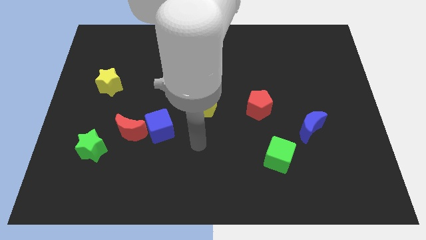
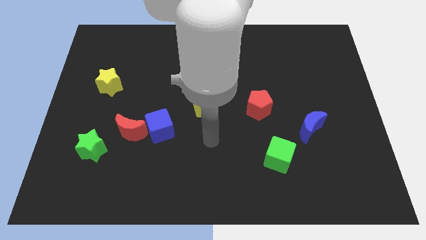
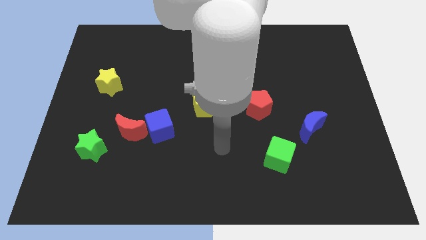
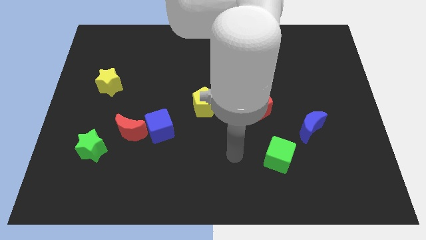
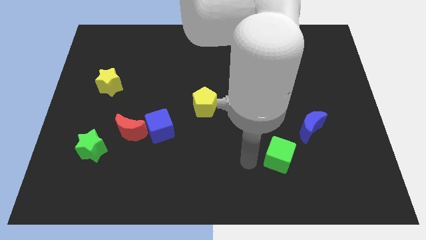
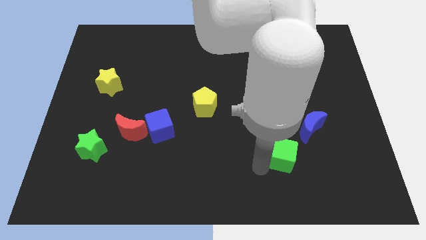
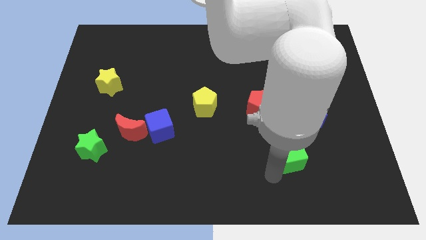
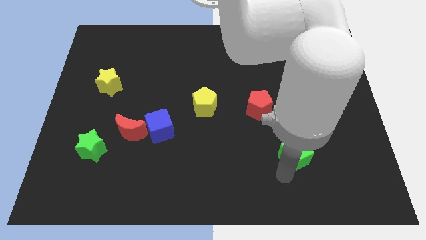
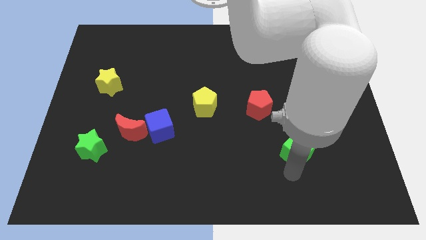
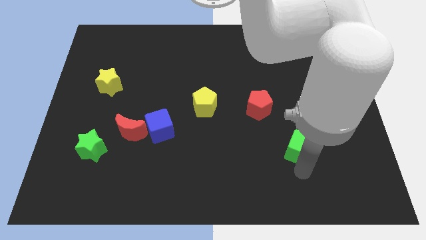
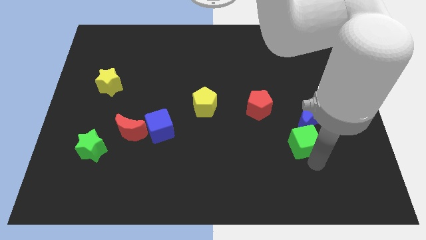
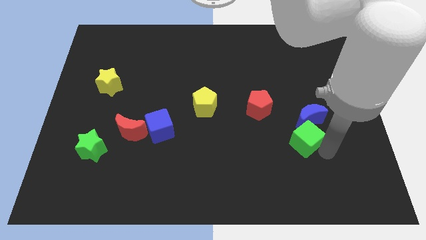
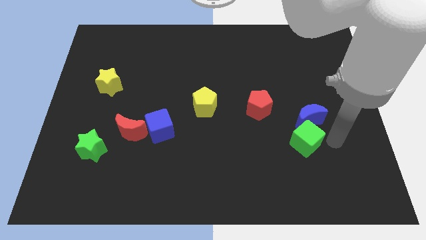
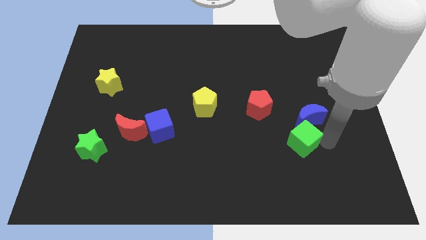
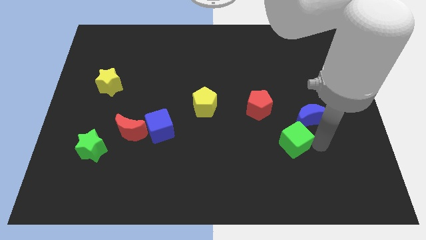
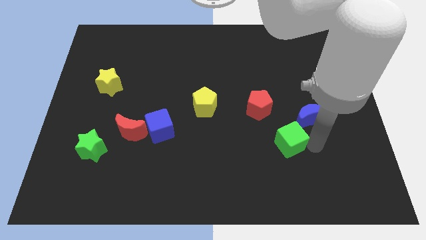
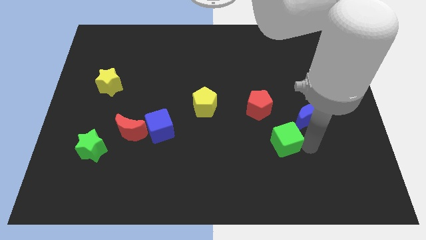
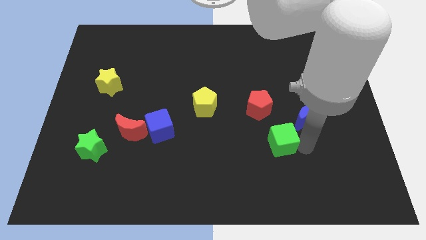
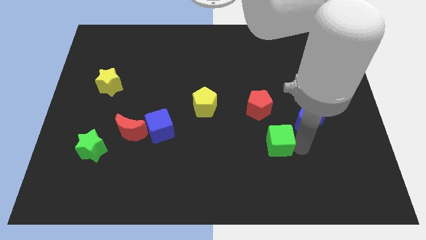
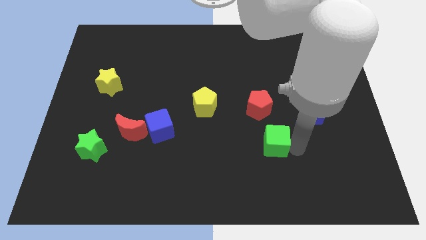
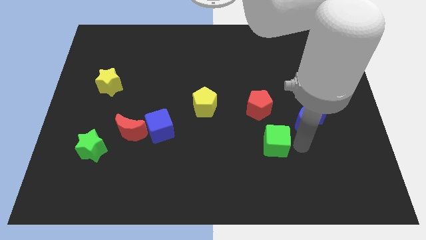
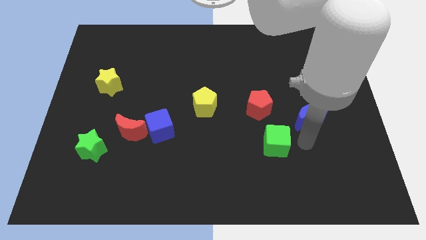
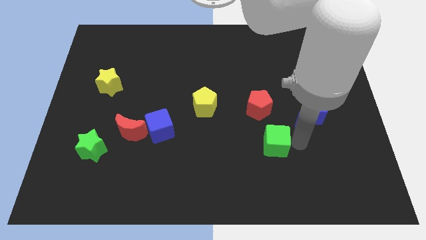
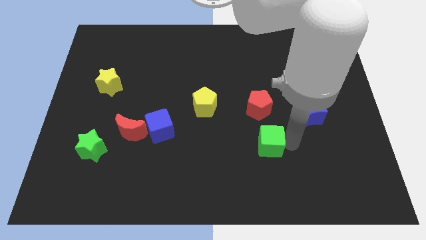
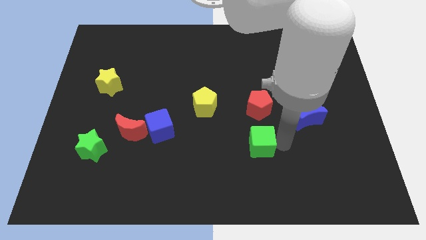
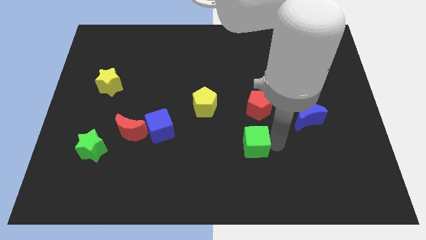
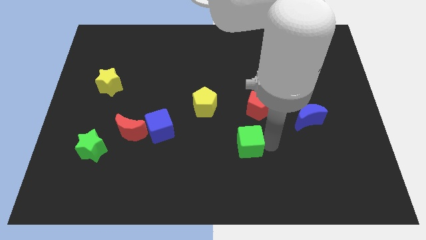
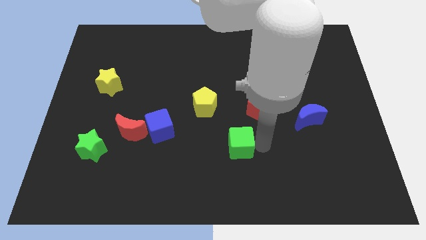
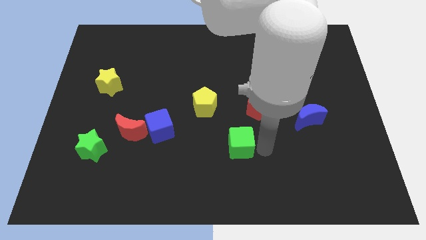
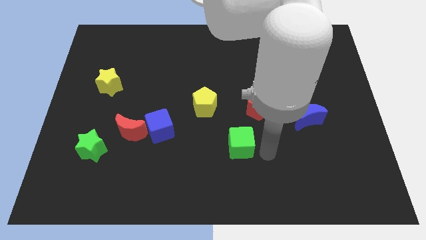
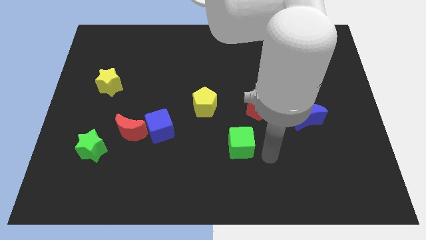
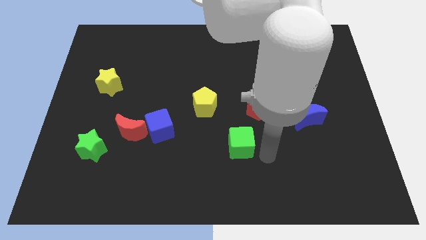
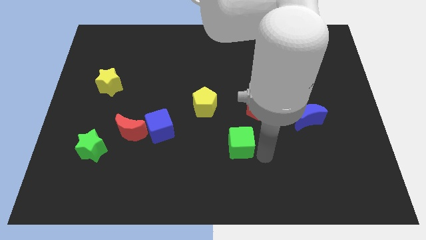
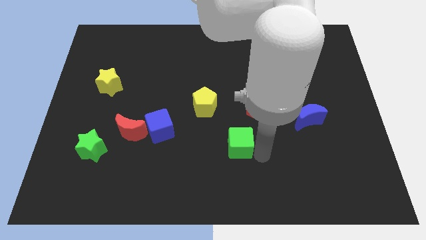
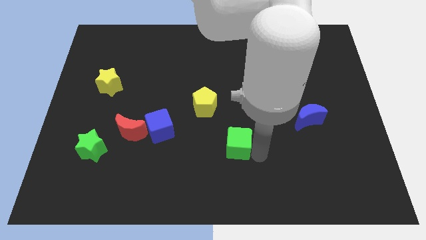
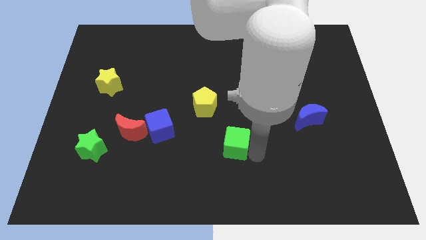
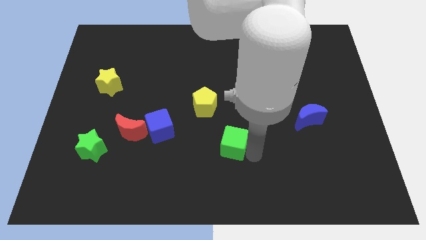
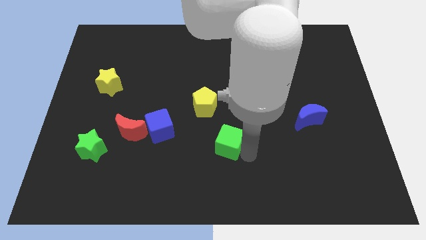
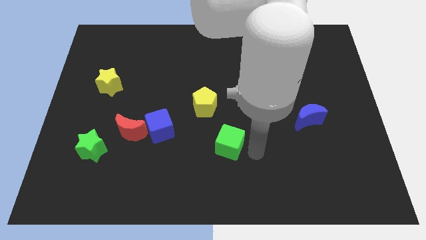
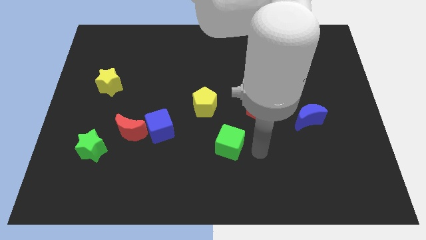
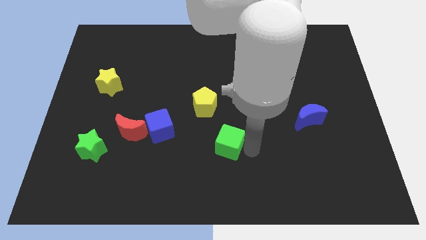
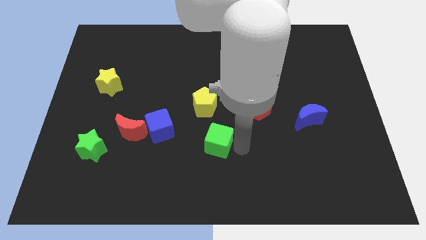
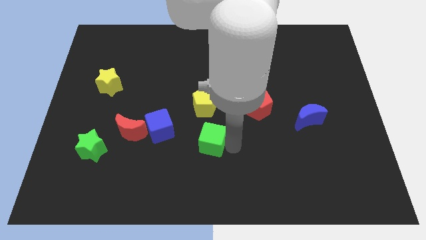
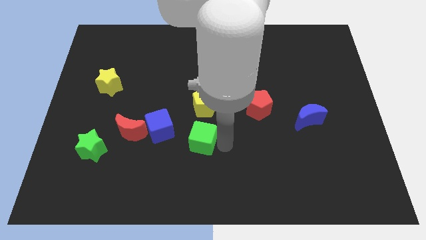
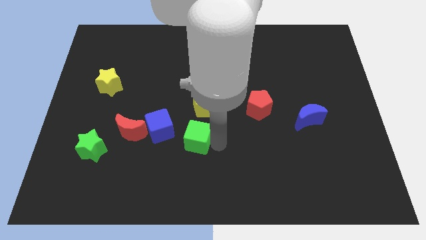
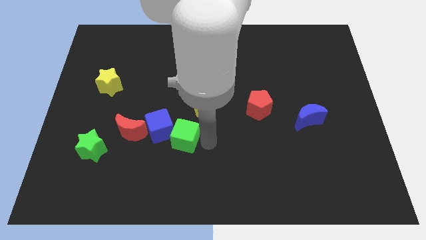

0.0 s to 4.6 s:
push the green cube towards the blue cube

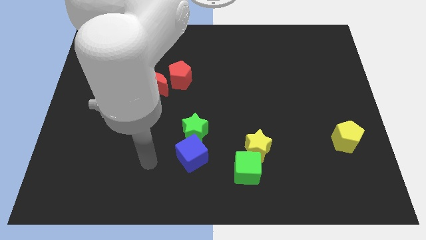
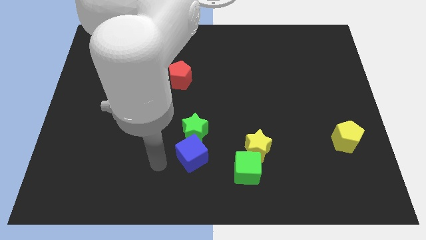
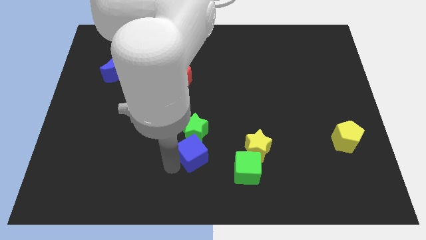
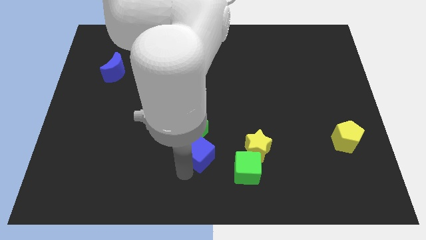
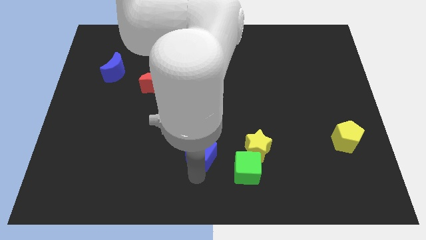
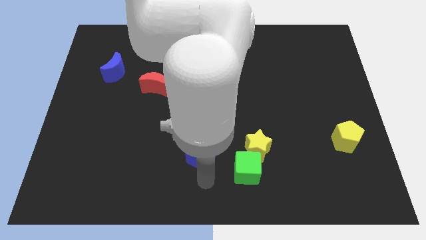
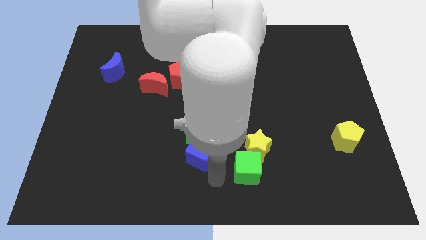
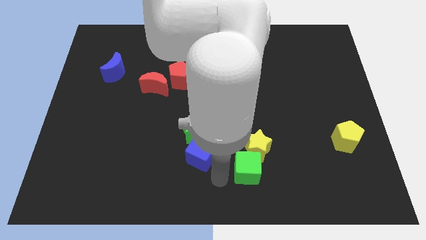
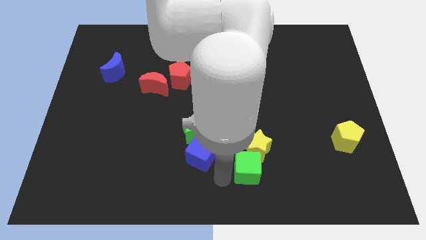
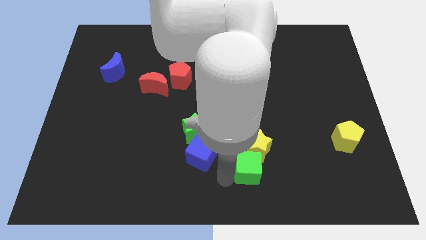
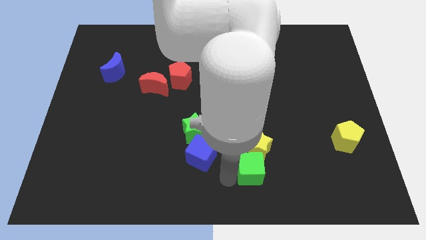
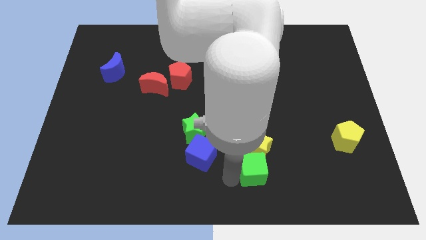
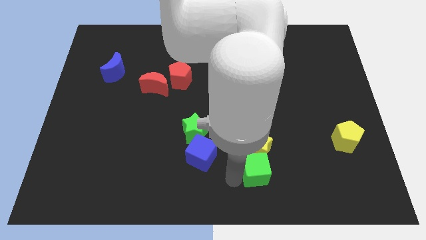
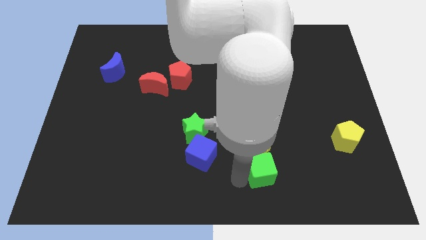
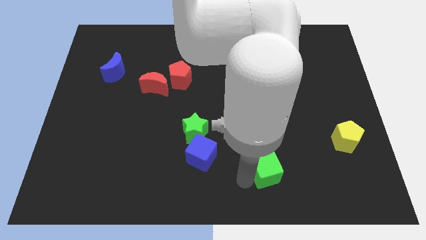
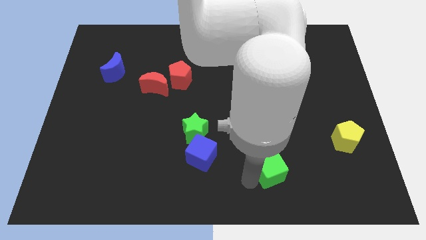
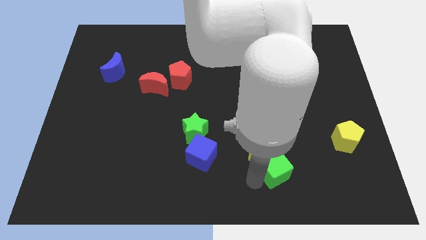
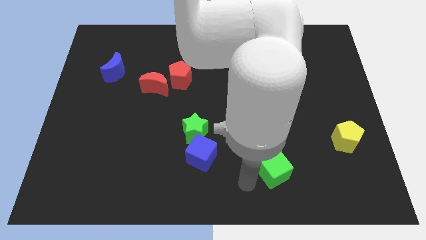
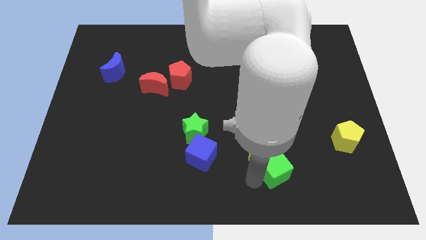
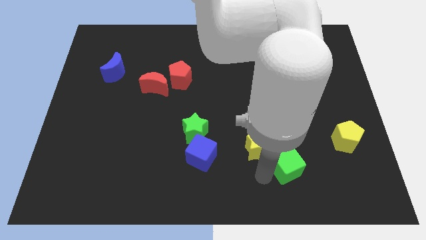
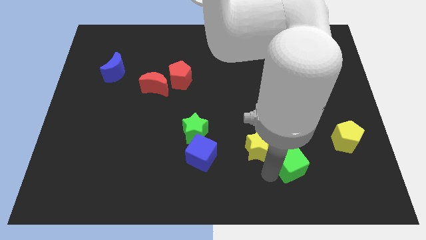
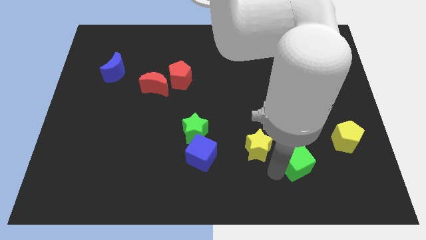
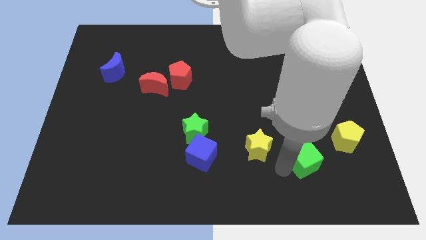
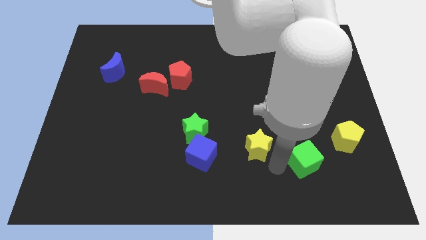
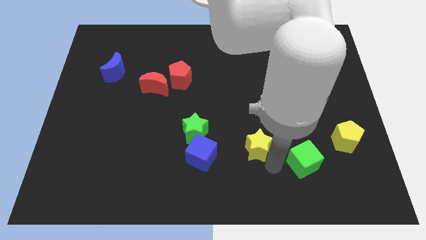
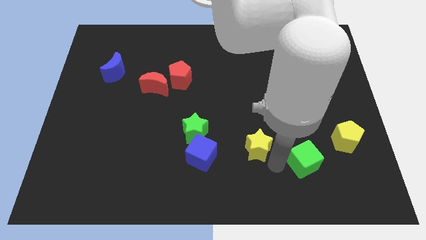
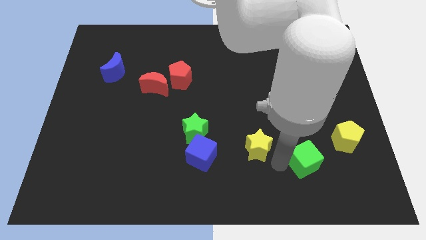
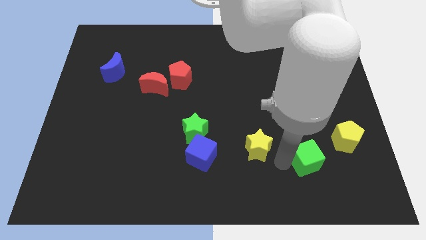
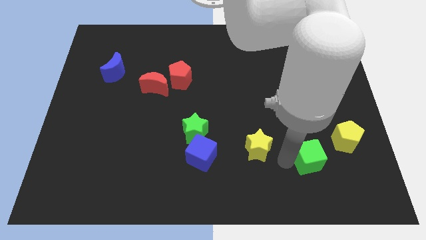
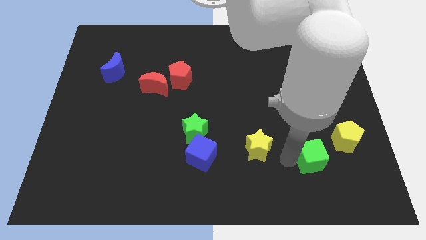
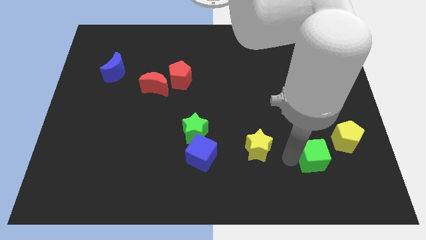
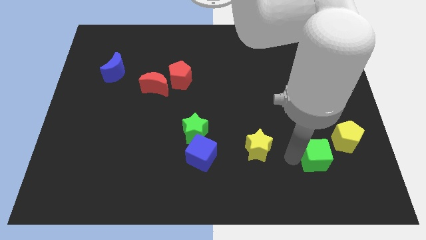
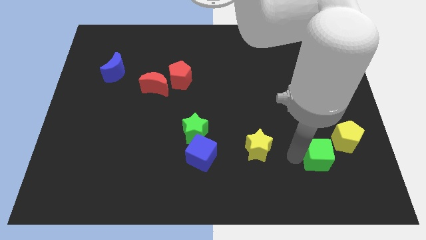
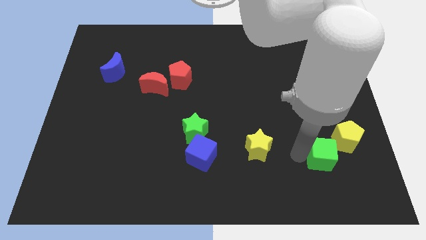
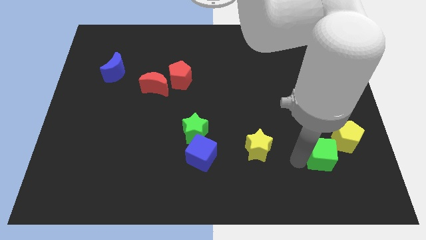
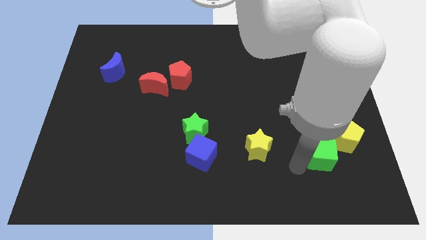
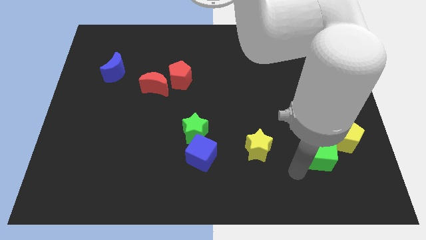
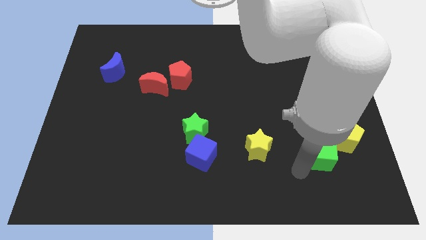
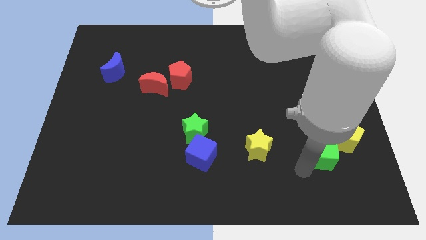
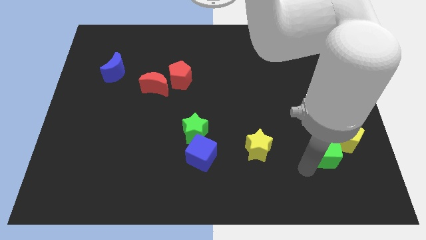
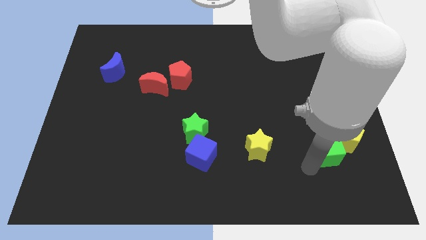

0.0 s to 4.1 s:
put the green cube next to the yellow pentagon
